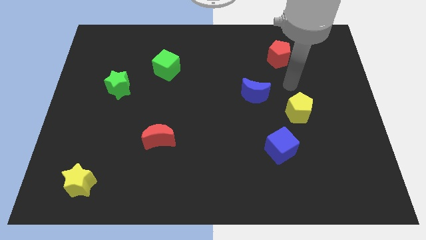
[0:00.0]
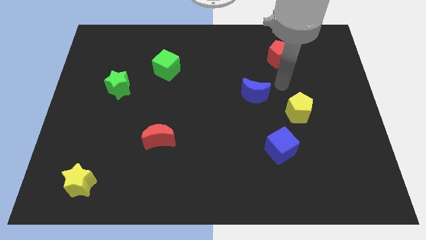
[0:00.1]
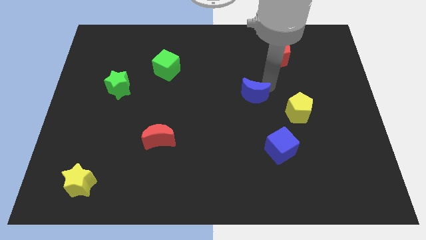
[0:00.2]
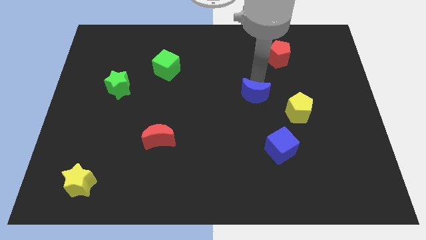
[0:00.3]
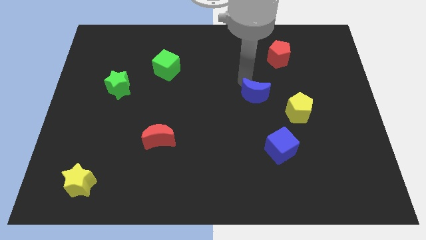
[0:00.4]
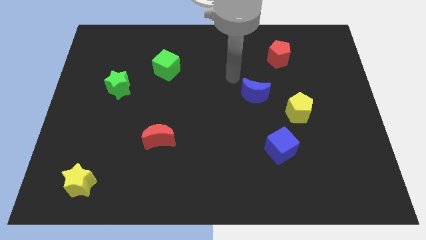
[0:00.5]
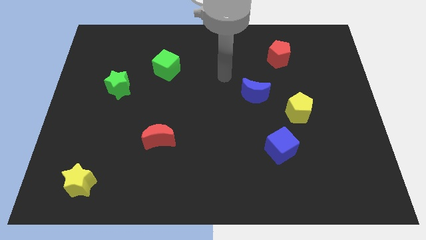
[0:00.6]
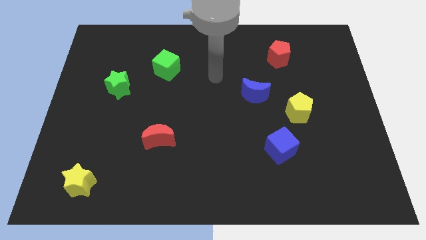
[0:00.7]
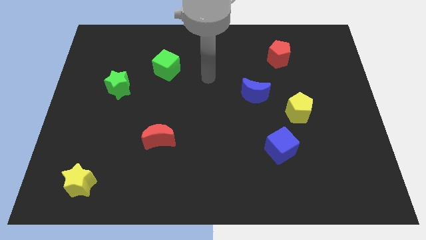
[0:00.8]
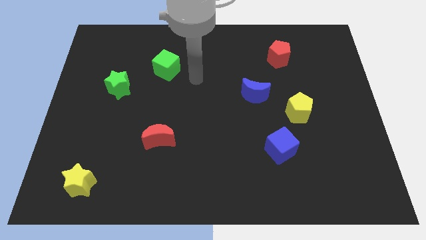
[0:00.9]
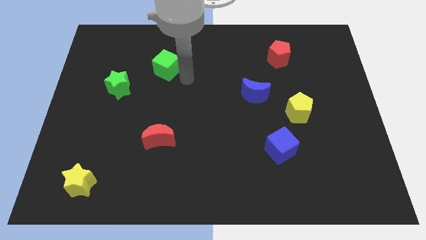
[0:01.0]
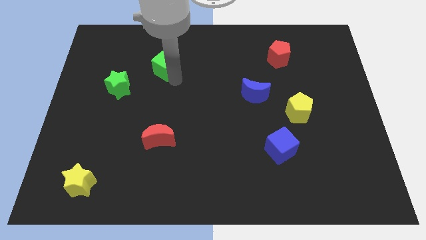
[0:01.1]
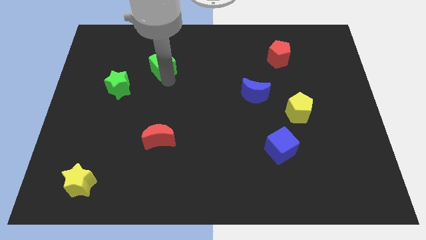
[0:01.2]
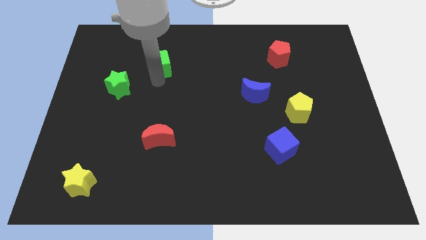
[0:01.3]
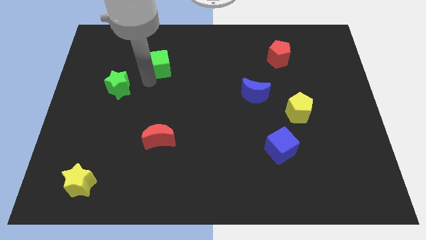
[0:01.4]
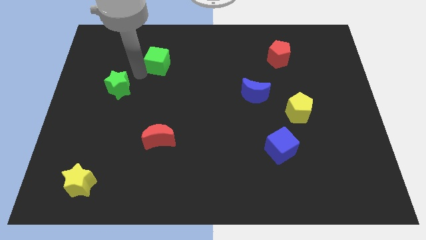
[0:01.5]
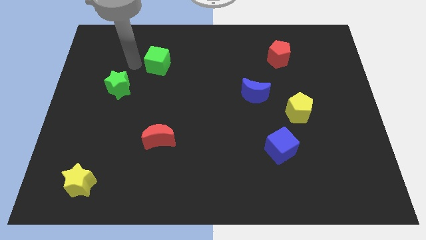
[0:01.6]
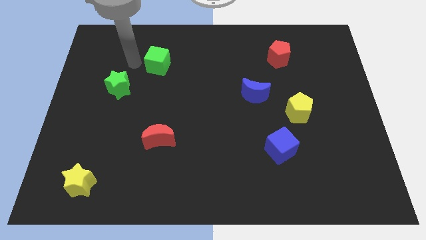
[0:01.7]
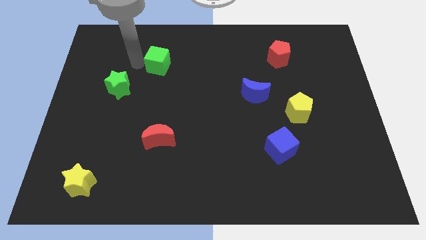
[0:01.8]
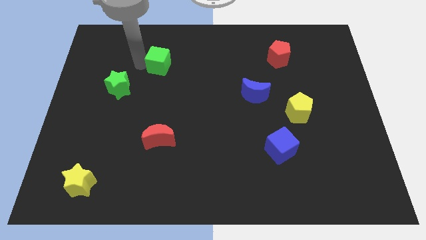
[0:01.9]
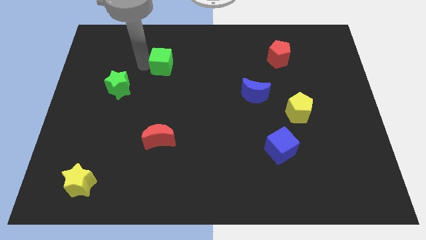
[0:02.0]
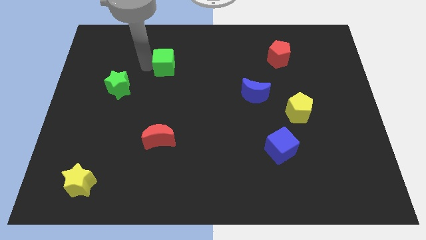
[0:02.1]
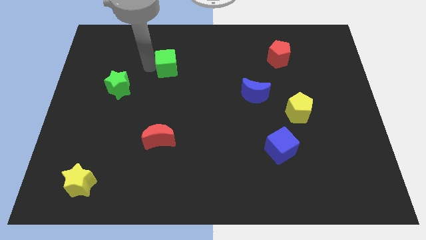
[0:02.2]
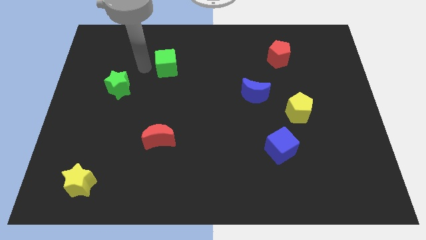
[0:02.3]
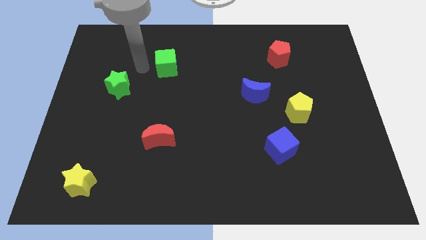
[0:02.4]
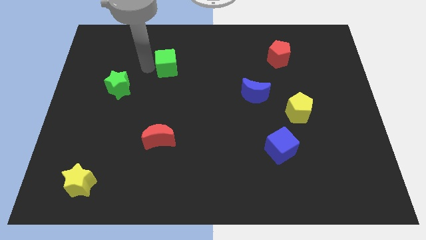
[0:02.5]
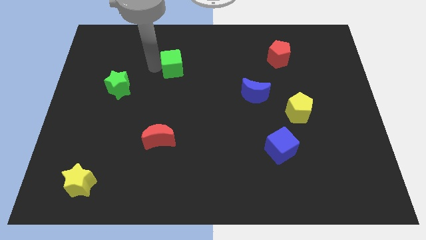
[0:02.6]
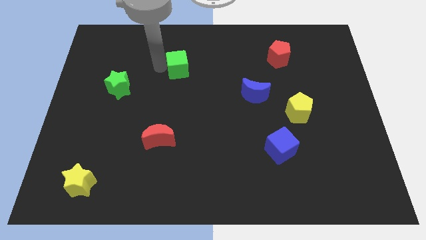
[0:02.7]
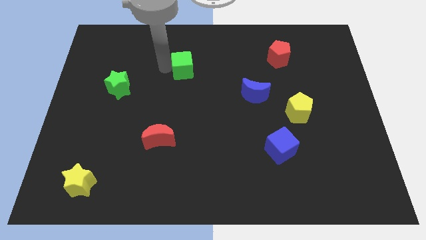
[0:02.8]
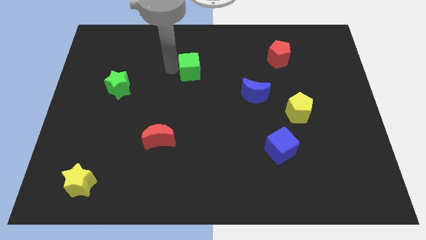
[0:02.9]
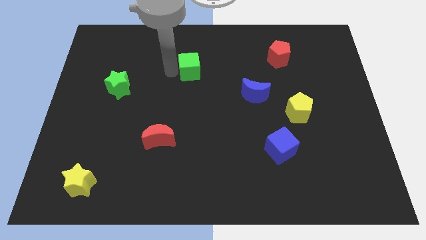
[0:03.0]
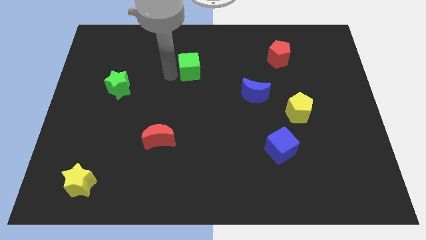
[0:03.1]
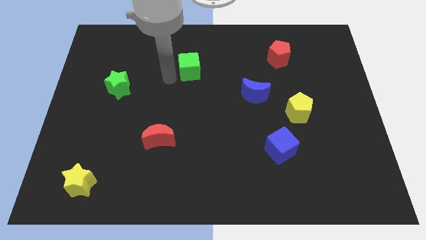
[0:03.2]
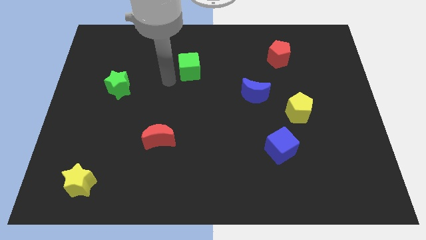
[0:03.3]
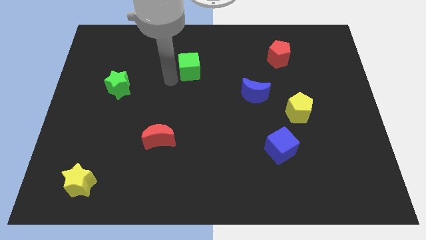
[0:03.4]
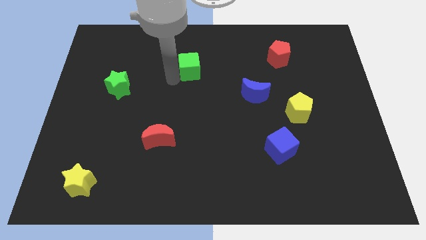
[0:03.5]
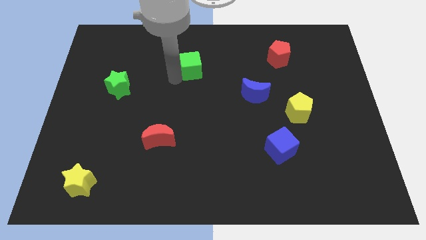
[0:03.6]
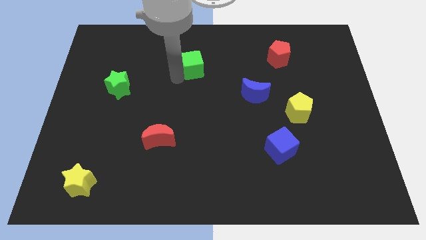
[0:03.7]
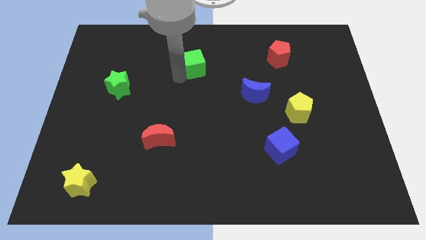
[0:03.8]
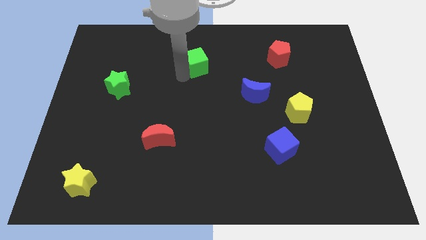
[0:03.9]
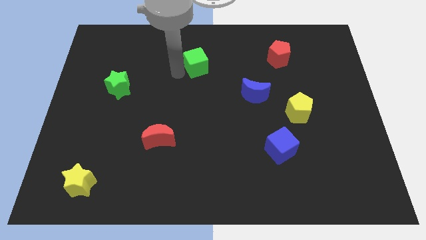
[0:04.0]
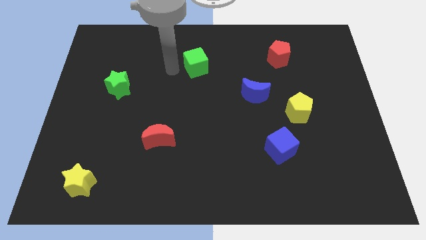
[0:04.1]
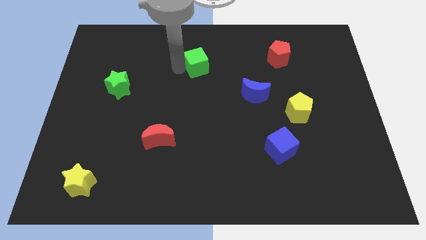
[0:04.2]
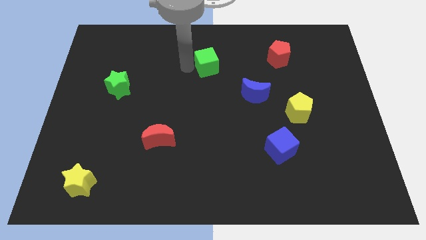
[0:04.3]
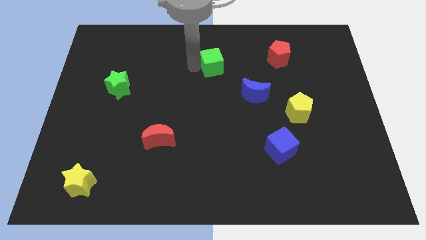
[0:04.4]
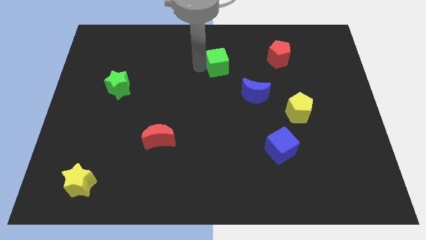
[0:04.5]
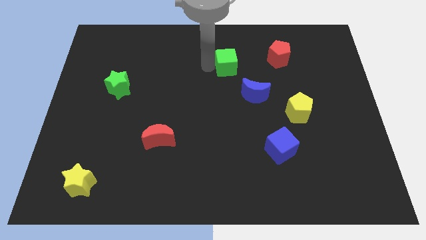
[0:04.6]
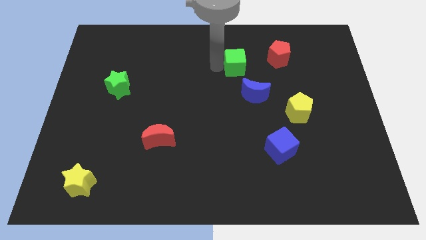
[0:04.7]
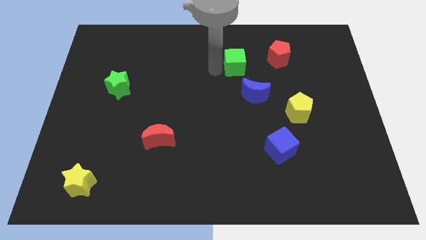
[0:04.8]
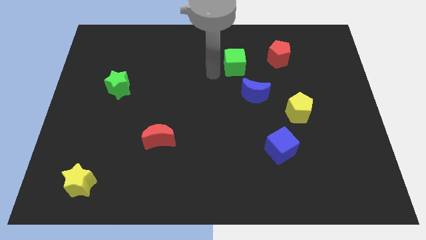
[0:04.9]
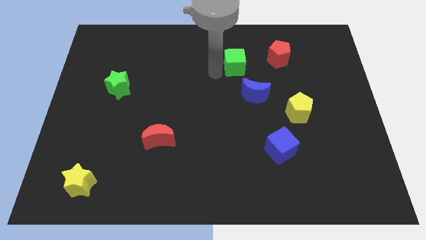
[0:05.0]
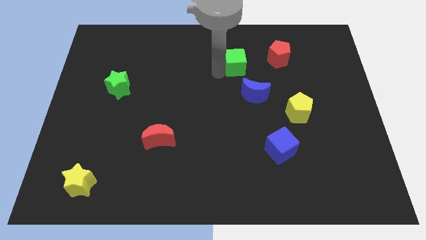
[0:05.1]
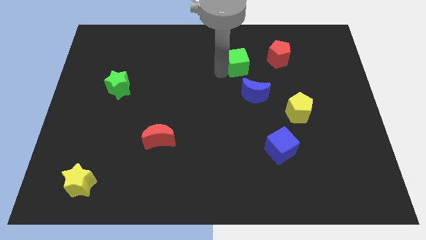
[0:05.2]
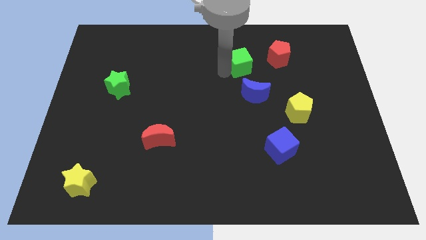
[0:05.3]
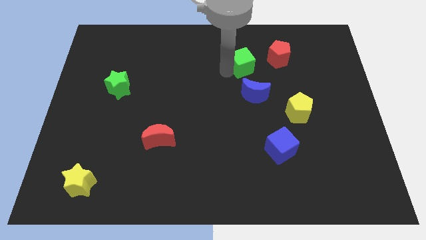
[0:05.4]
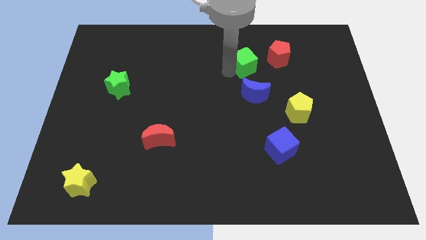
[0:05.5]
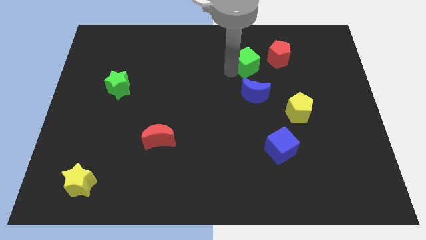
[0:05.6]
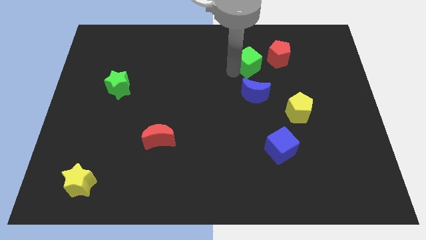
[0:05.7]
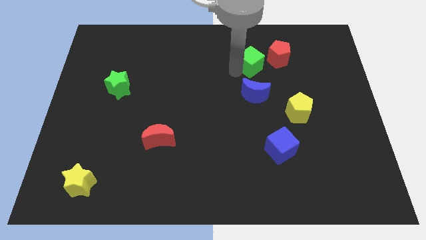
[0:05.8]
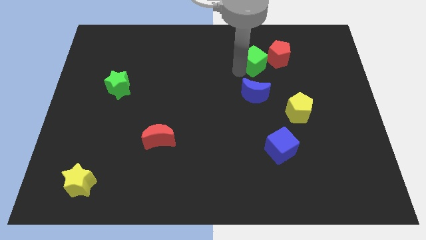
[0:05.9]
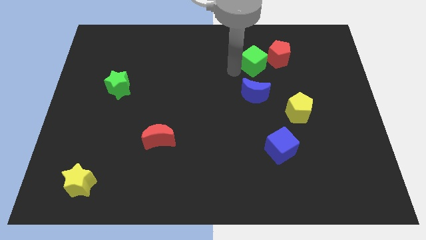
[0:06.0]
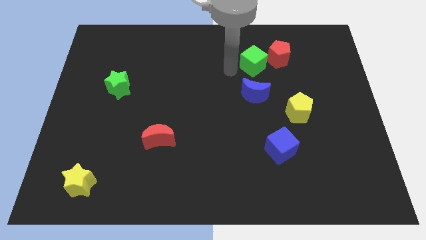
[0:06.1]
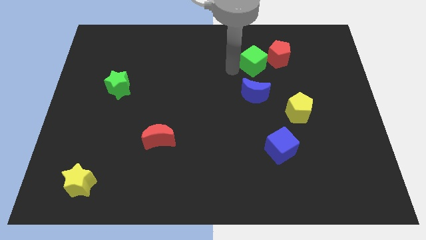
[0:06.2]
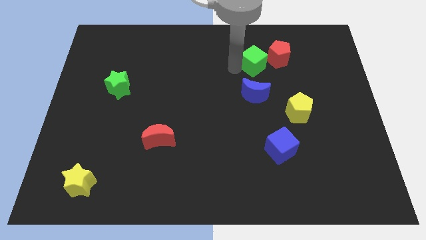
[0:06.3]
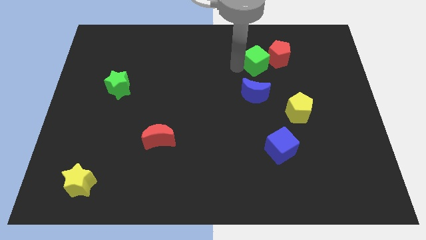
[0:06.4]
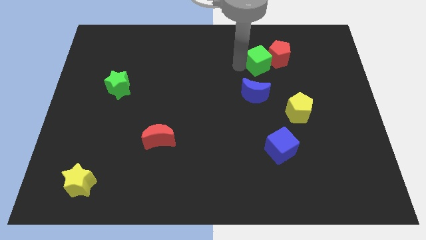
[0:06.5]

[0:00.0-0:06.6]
put the green cube next to the red pentagon
